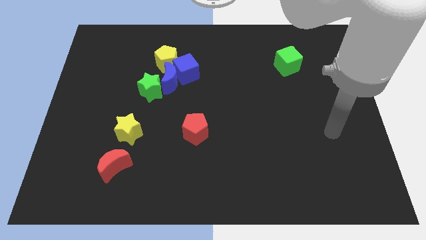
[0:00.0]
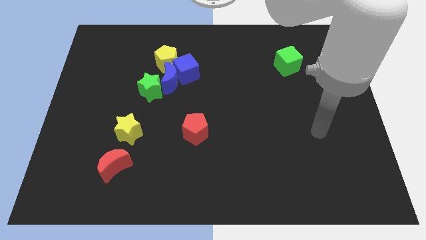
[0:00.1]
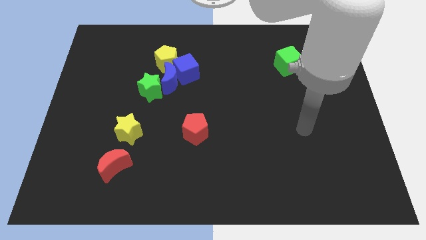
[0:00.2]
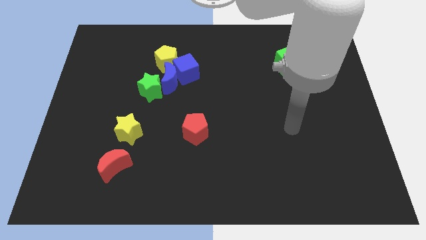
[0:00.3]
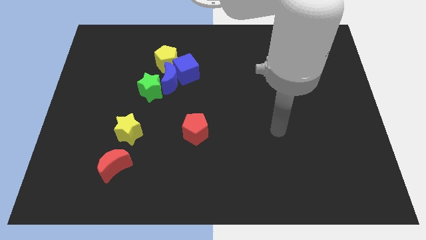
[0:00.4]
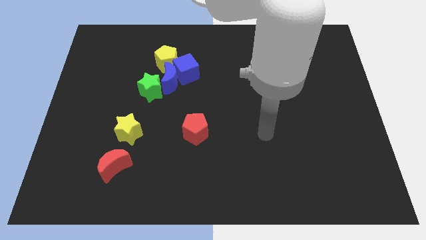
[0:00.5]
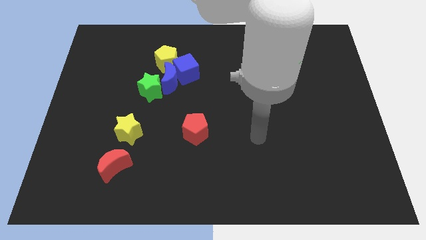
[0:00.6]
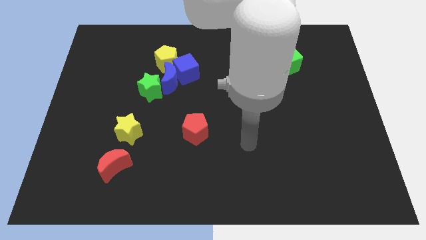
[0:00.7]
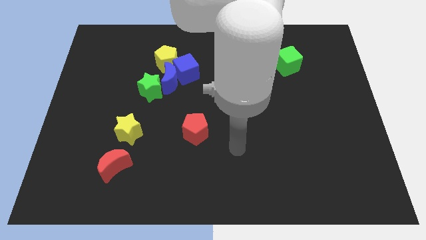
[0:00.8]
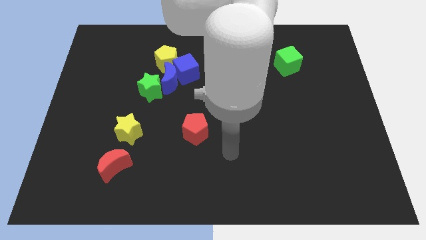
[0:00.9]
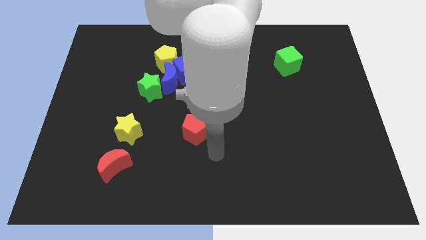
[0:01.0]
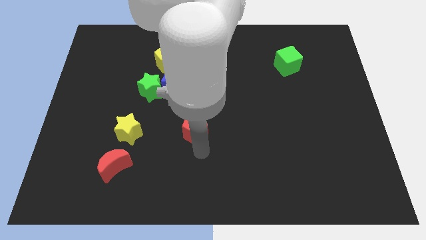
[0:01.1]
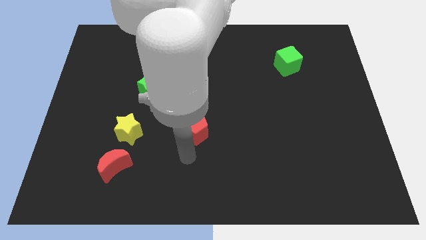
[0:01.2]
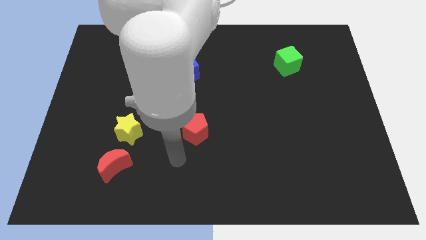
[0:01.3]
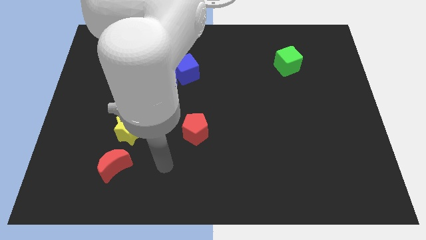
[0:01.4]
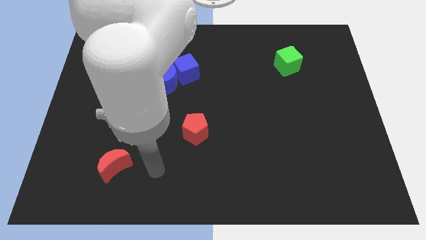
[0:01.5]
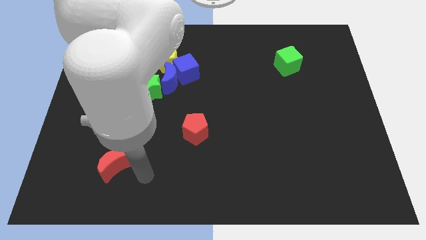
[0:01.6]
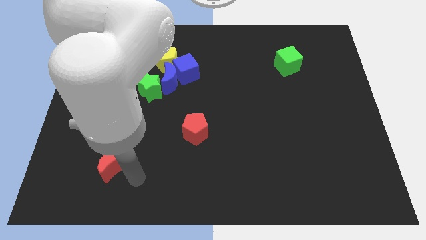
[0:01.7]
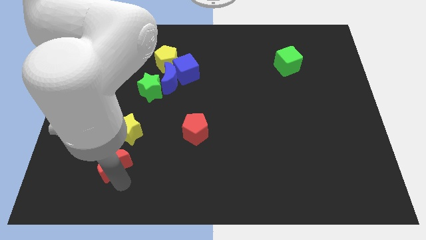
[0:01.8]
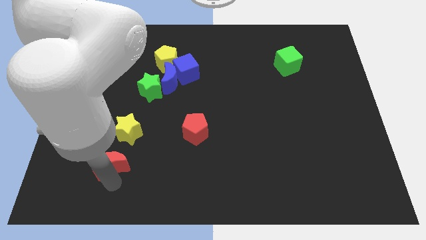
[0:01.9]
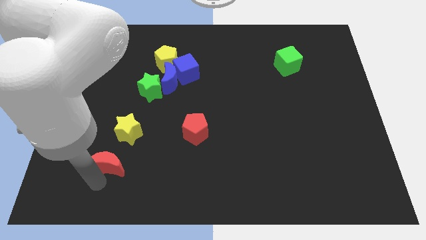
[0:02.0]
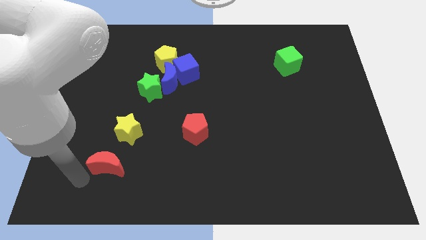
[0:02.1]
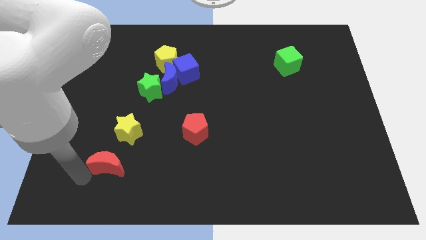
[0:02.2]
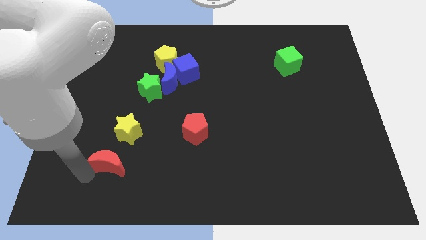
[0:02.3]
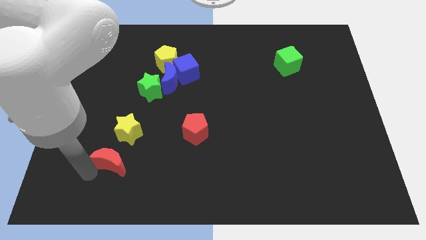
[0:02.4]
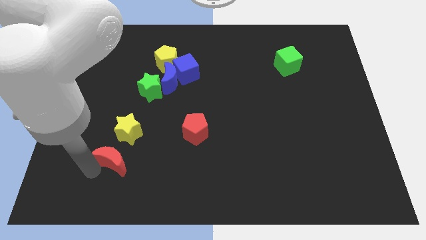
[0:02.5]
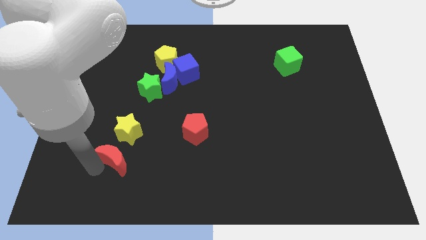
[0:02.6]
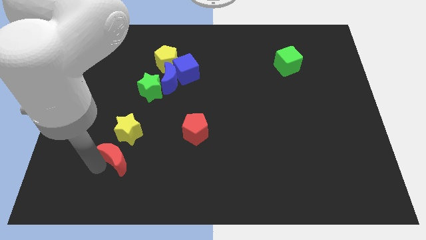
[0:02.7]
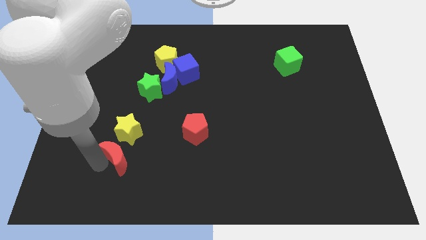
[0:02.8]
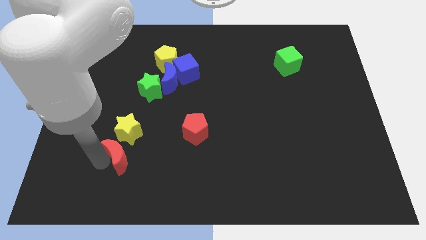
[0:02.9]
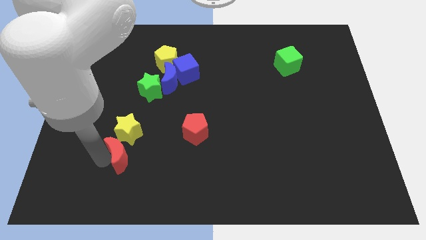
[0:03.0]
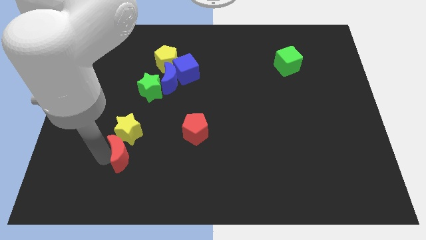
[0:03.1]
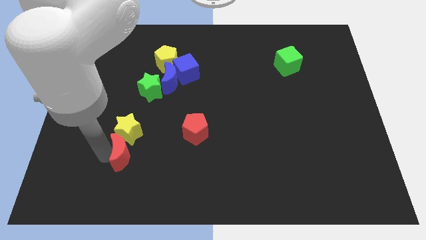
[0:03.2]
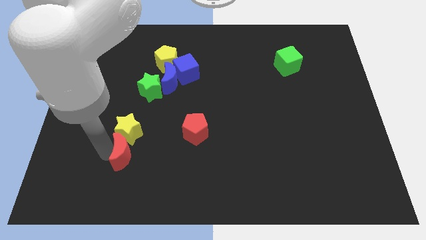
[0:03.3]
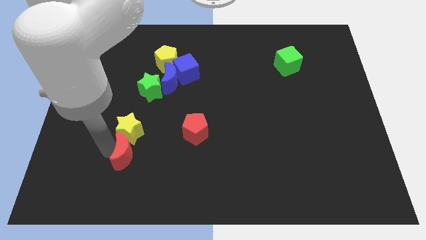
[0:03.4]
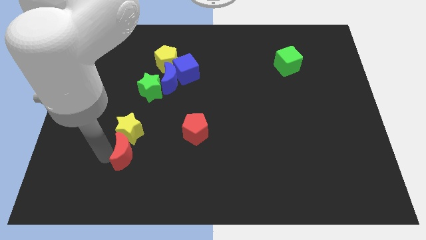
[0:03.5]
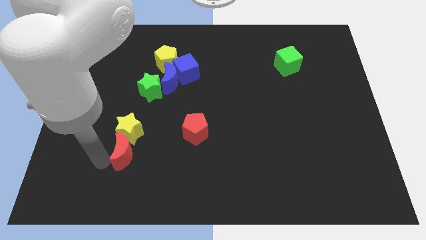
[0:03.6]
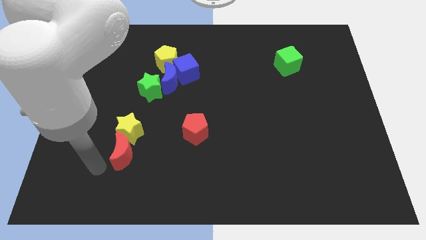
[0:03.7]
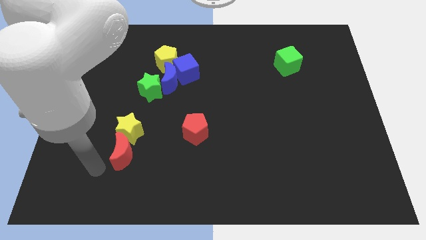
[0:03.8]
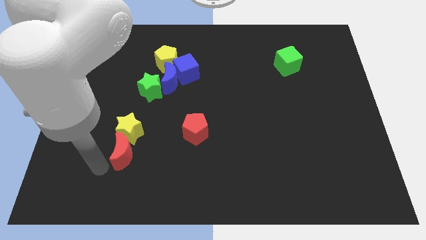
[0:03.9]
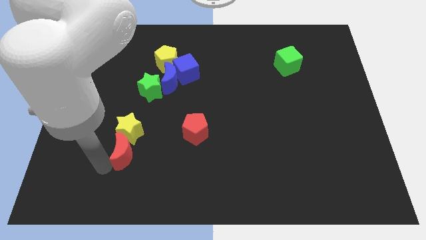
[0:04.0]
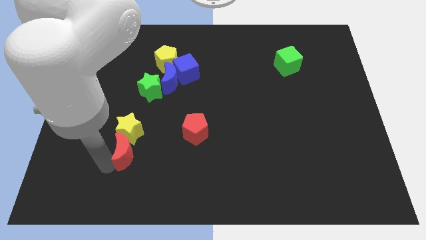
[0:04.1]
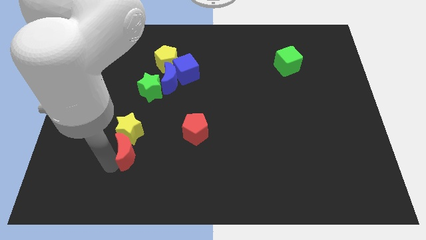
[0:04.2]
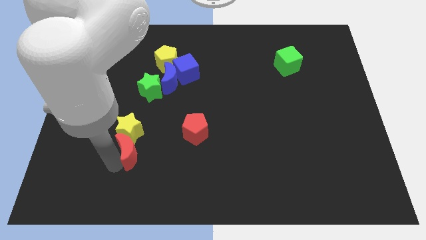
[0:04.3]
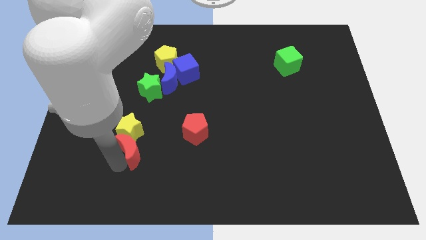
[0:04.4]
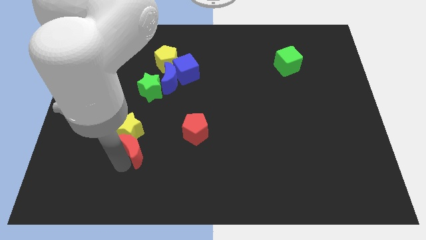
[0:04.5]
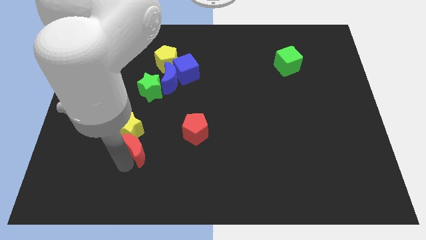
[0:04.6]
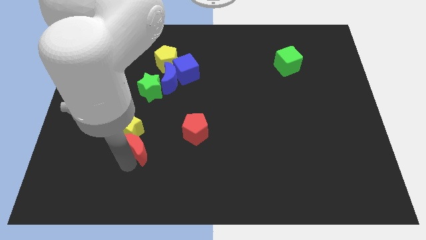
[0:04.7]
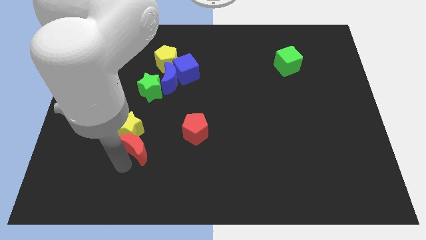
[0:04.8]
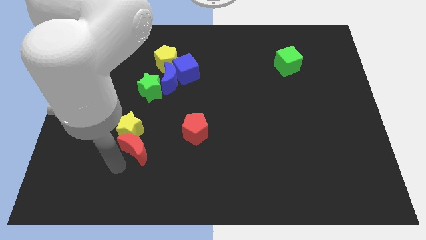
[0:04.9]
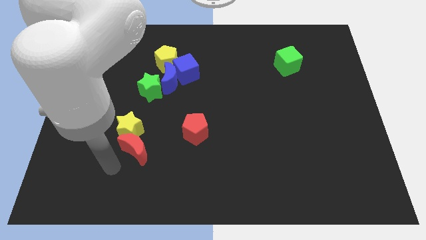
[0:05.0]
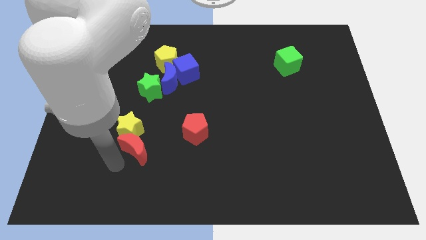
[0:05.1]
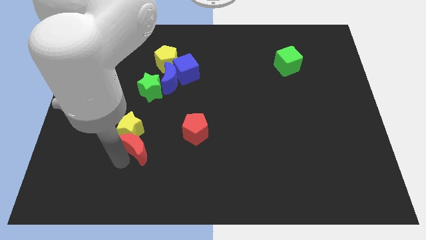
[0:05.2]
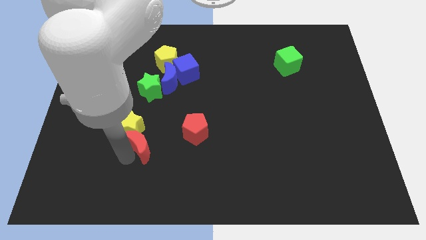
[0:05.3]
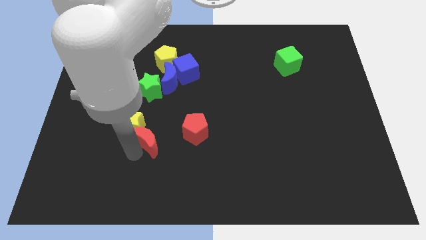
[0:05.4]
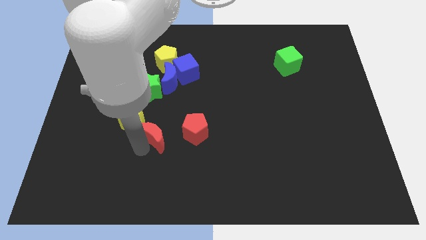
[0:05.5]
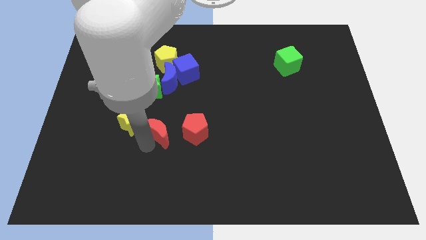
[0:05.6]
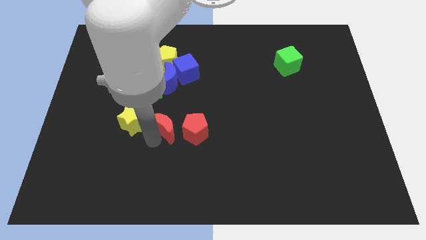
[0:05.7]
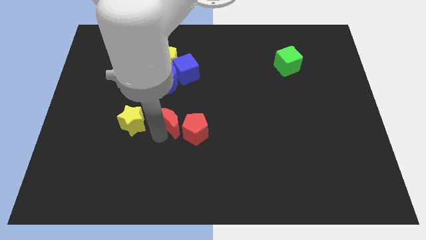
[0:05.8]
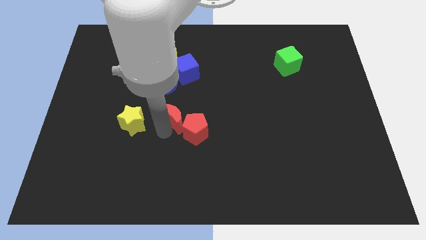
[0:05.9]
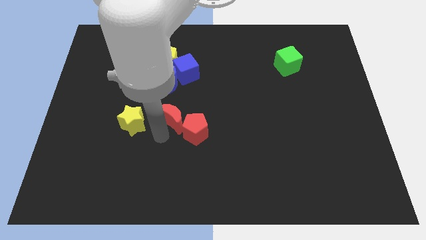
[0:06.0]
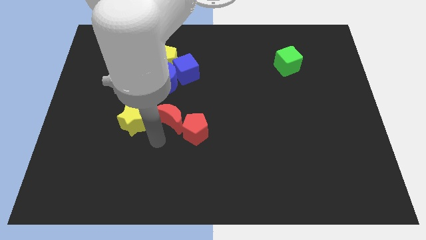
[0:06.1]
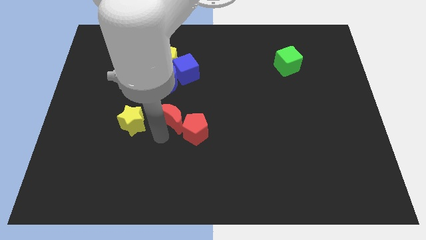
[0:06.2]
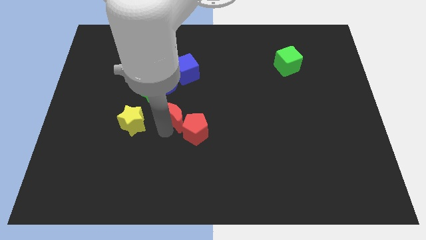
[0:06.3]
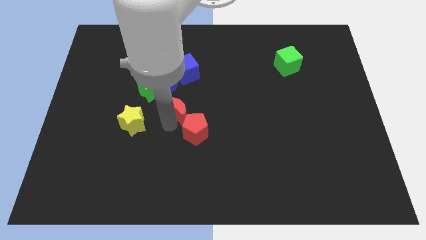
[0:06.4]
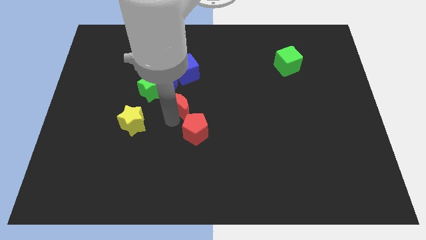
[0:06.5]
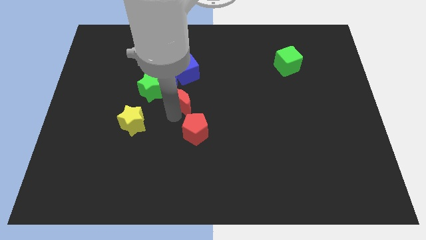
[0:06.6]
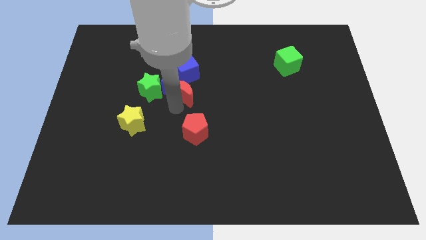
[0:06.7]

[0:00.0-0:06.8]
push the red moon to the right side of the blue moon

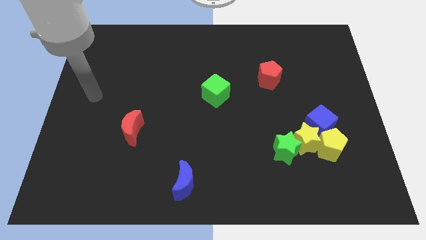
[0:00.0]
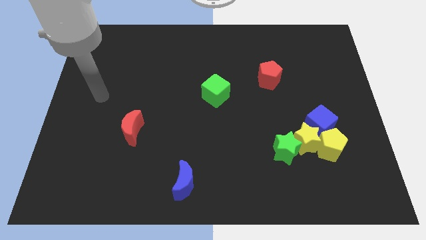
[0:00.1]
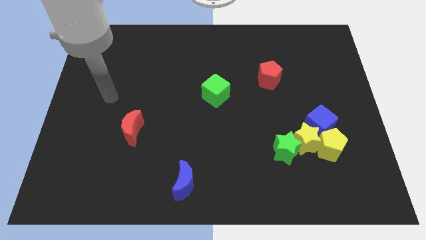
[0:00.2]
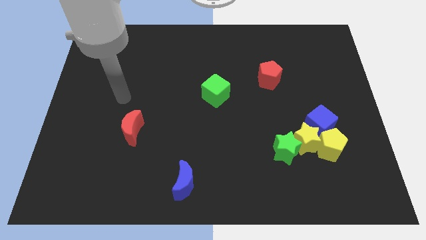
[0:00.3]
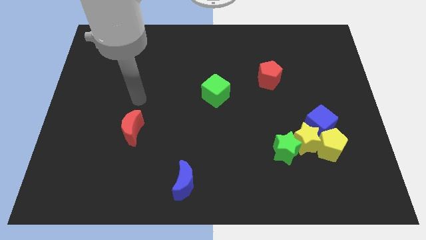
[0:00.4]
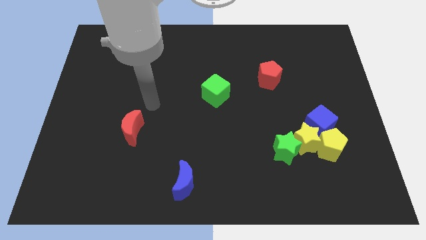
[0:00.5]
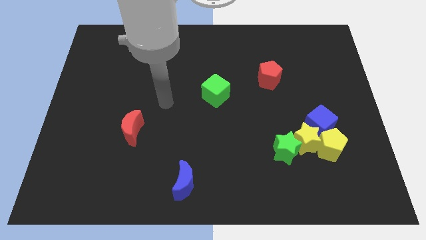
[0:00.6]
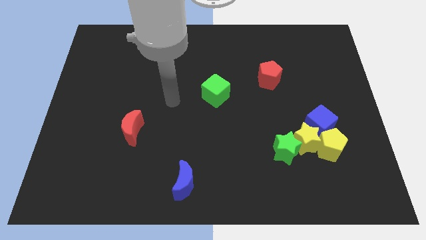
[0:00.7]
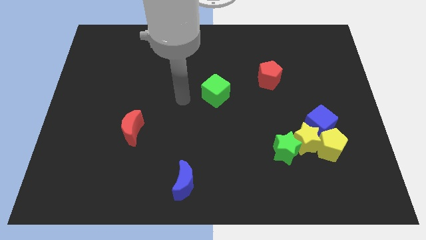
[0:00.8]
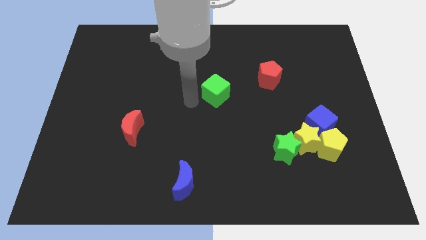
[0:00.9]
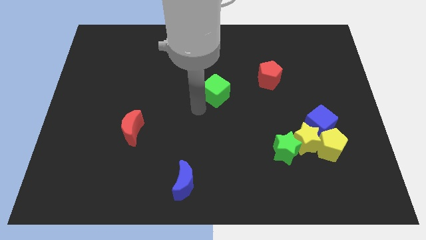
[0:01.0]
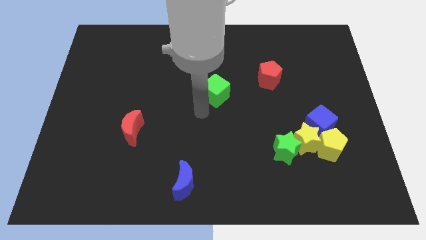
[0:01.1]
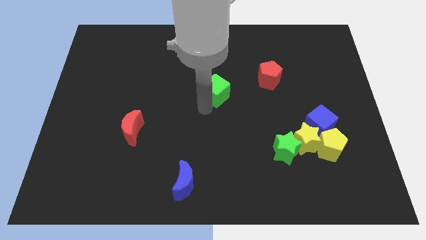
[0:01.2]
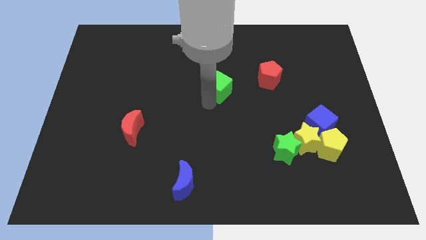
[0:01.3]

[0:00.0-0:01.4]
put the green cube just left of the red pentagon
